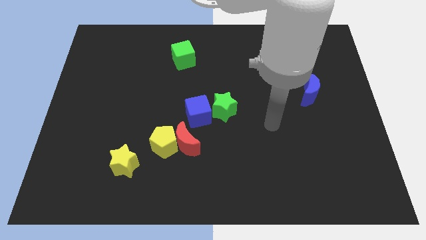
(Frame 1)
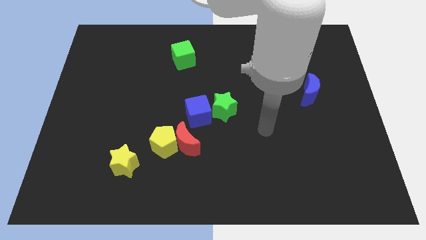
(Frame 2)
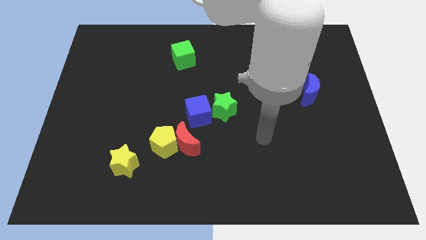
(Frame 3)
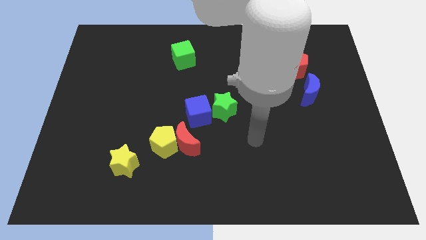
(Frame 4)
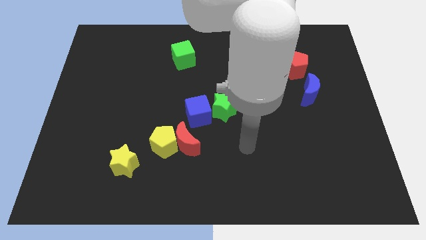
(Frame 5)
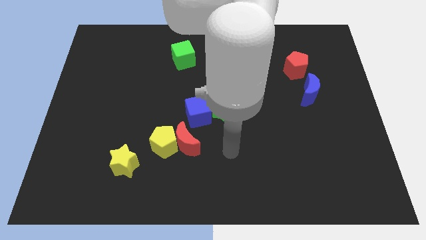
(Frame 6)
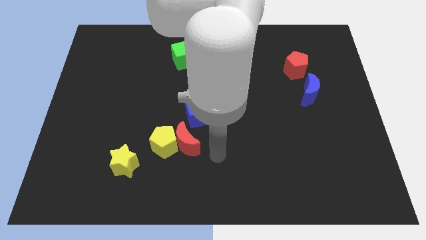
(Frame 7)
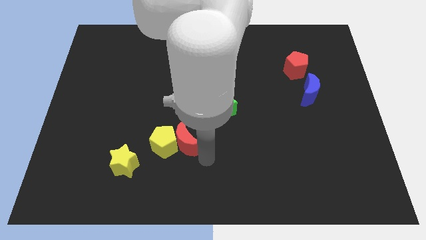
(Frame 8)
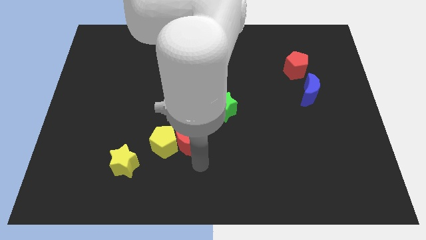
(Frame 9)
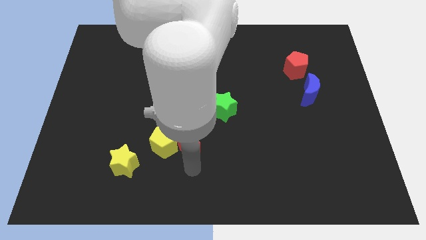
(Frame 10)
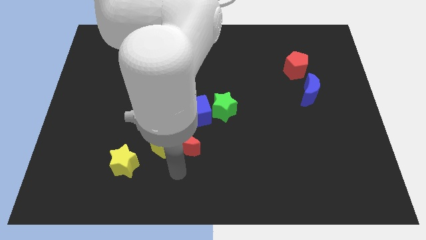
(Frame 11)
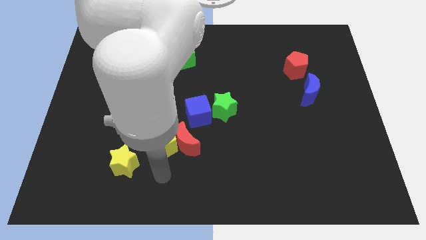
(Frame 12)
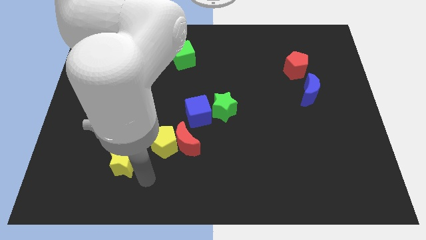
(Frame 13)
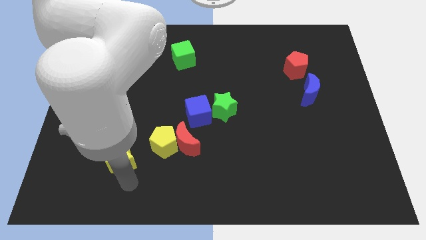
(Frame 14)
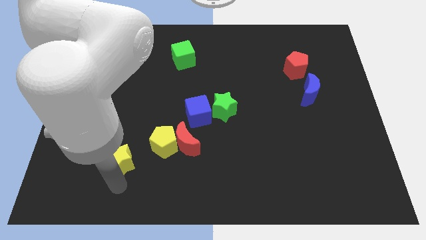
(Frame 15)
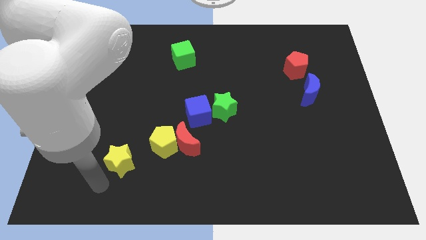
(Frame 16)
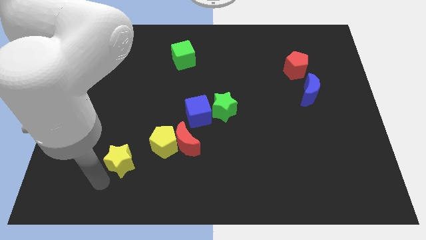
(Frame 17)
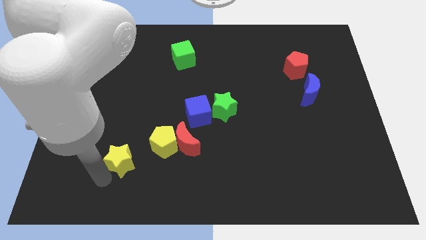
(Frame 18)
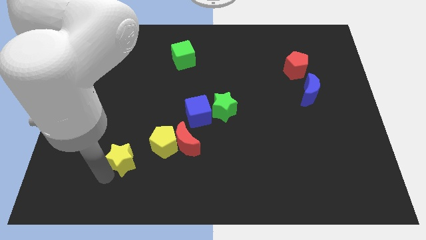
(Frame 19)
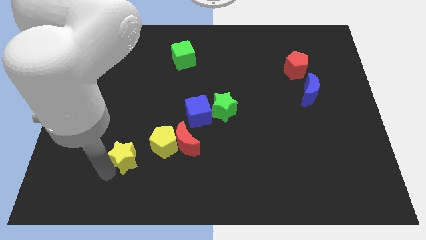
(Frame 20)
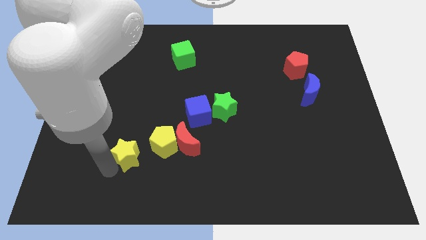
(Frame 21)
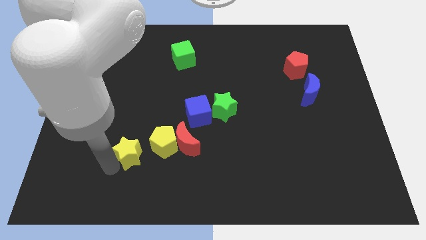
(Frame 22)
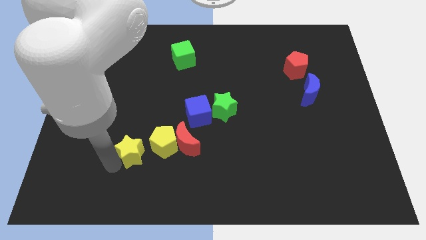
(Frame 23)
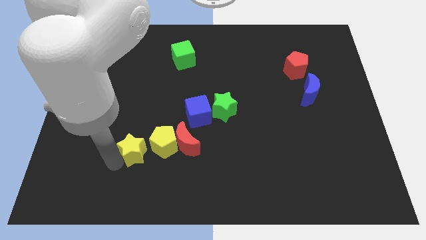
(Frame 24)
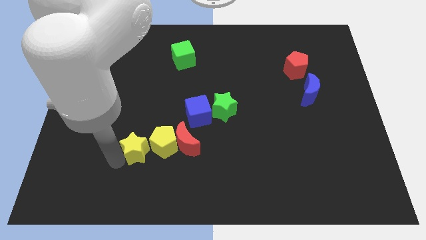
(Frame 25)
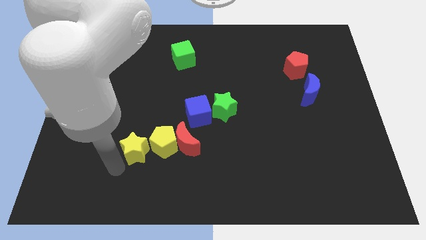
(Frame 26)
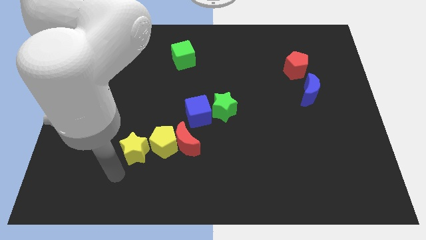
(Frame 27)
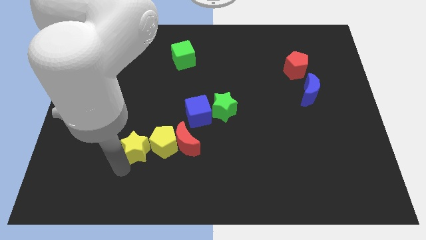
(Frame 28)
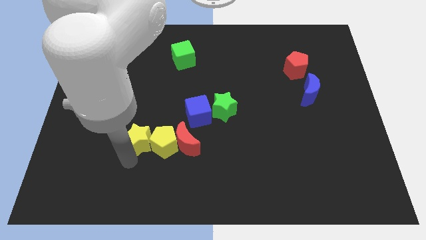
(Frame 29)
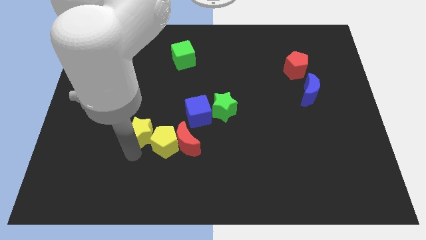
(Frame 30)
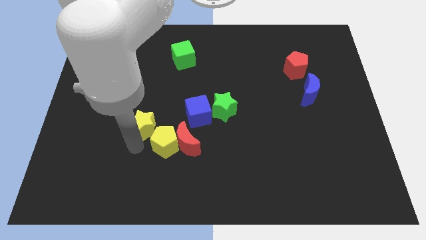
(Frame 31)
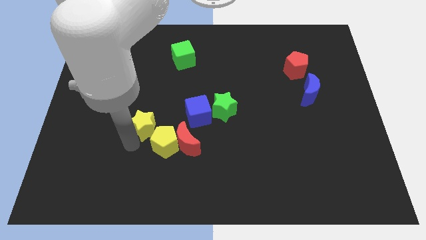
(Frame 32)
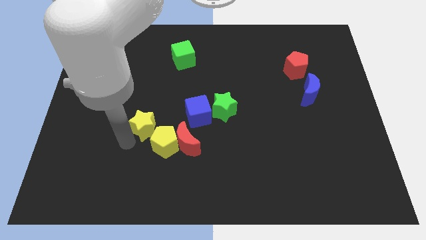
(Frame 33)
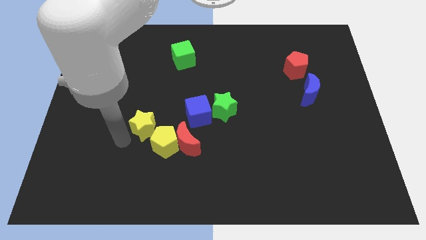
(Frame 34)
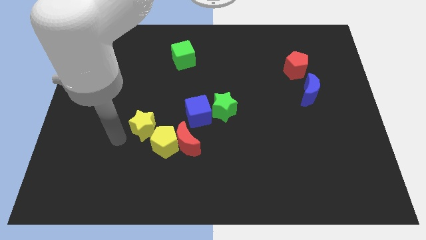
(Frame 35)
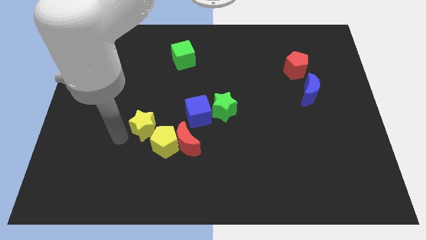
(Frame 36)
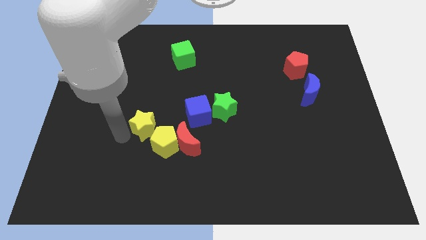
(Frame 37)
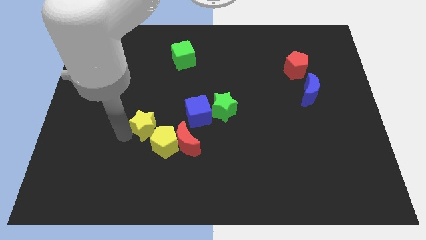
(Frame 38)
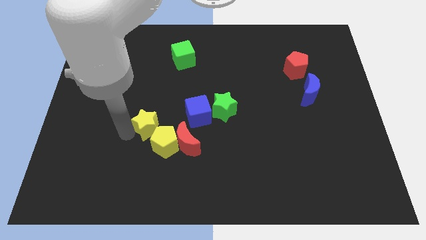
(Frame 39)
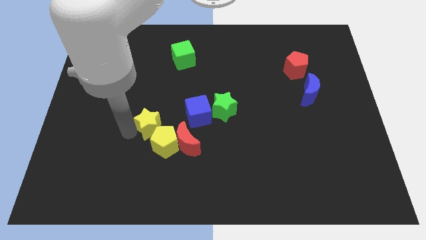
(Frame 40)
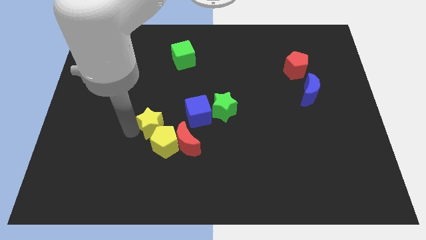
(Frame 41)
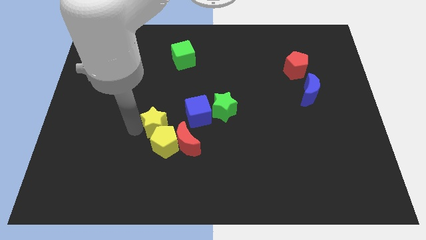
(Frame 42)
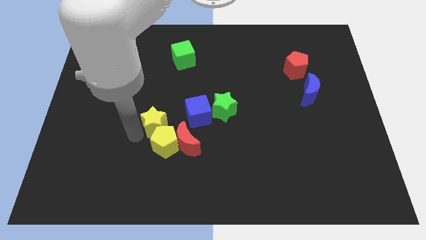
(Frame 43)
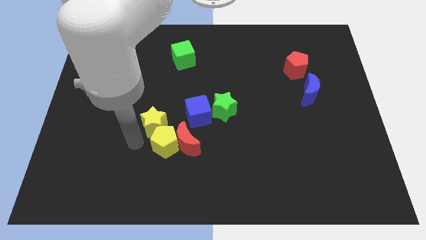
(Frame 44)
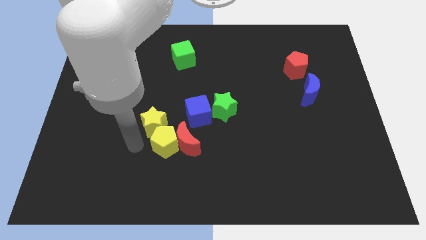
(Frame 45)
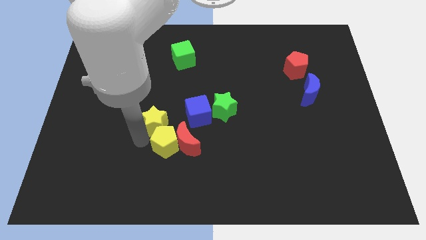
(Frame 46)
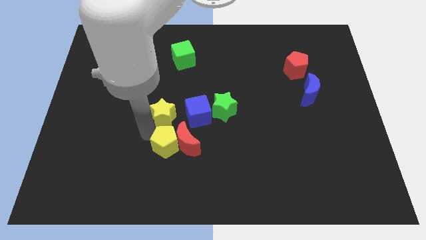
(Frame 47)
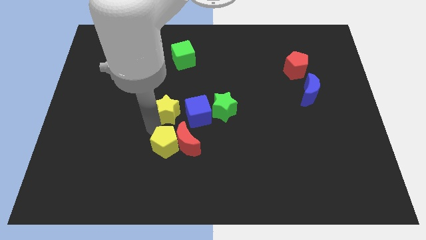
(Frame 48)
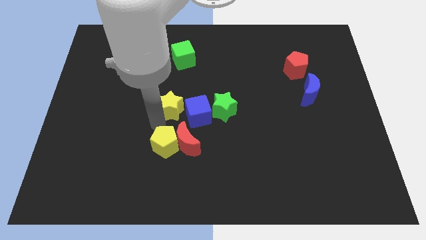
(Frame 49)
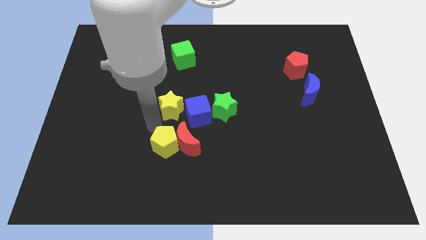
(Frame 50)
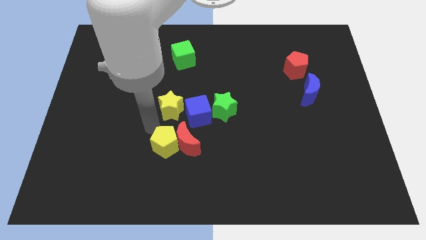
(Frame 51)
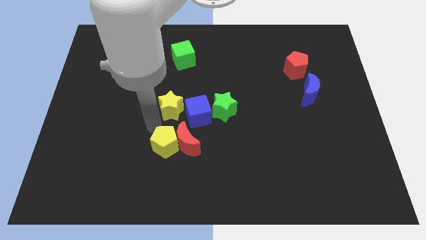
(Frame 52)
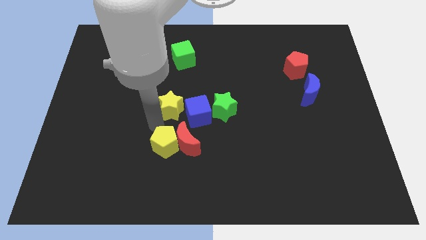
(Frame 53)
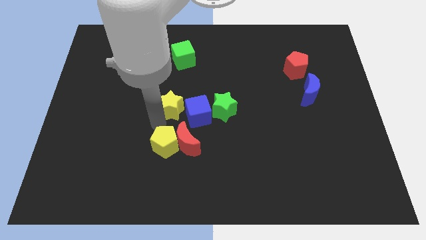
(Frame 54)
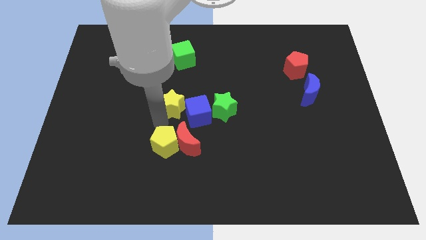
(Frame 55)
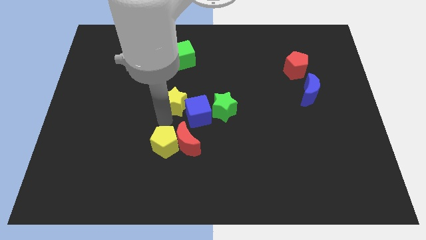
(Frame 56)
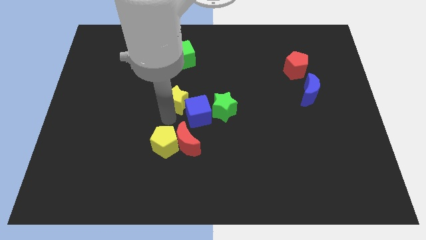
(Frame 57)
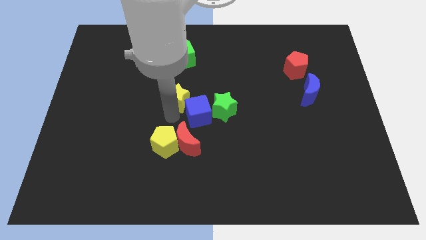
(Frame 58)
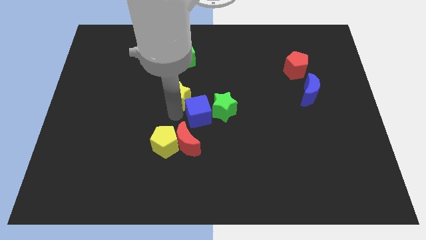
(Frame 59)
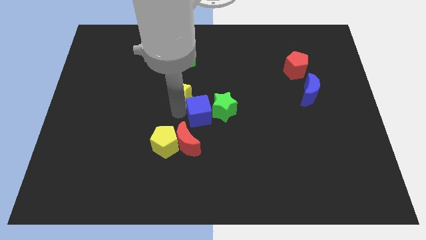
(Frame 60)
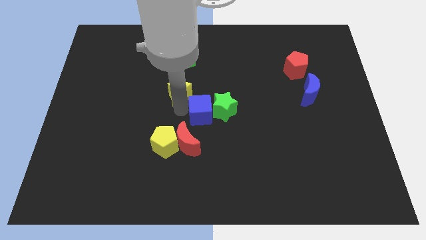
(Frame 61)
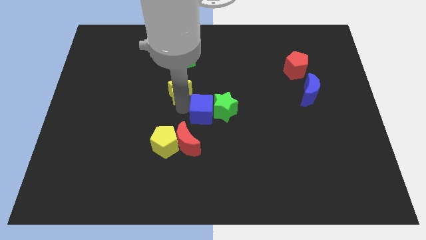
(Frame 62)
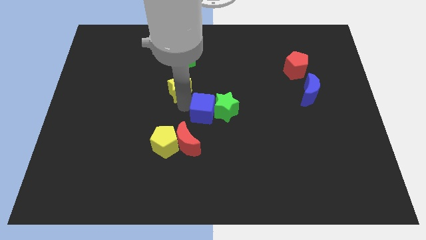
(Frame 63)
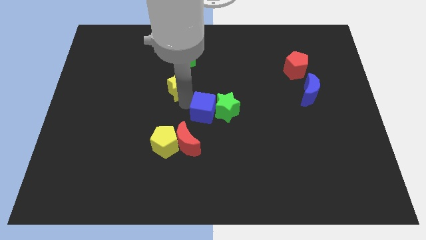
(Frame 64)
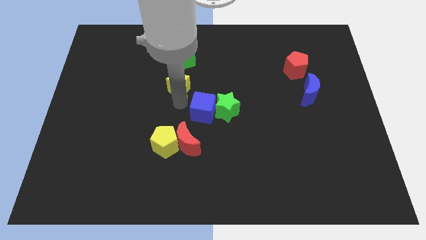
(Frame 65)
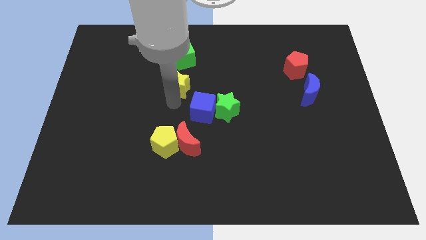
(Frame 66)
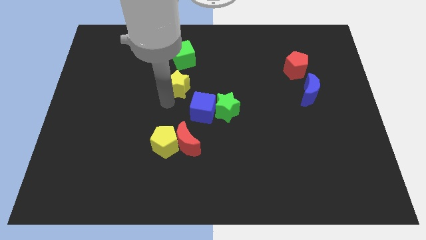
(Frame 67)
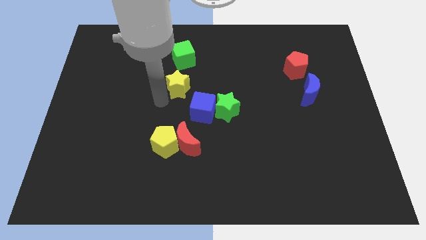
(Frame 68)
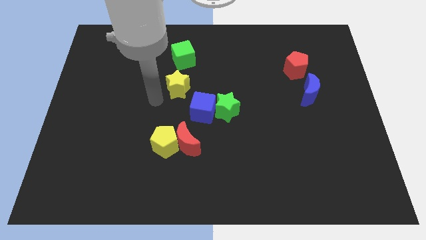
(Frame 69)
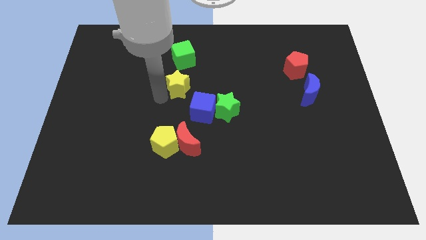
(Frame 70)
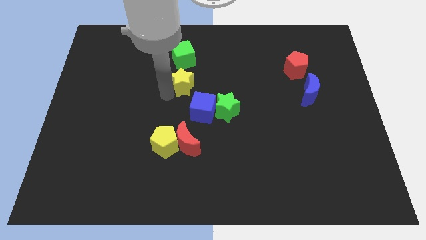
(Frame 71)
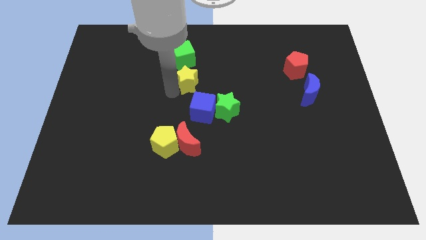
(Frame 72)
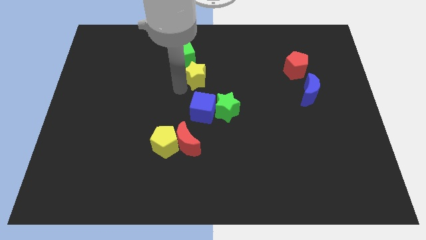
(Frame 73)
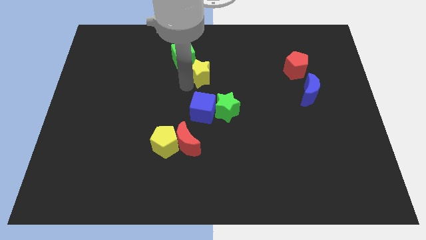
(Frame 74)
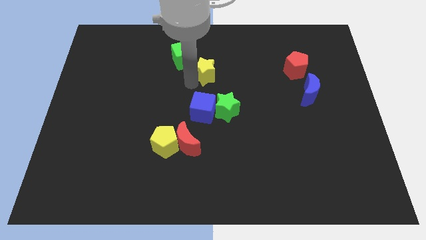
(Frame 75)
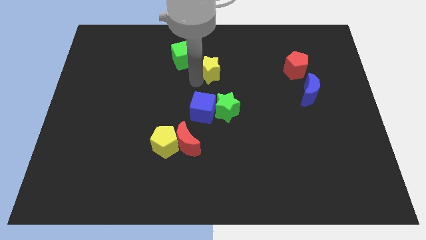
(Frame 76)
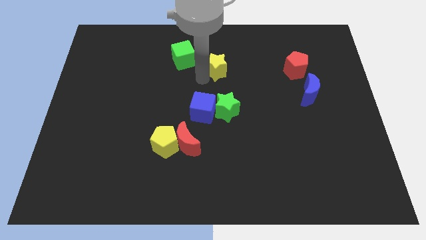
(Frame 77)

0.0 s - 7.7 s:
slide the yellow star to the right side of the green cube

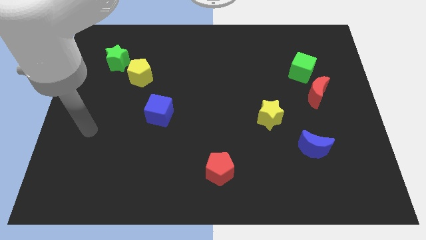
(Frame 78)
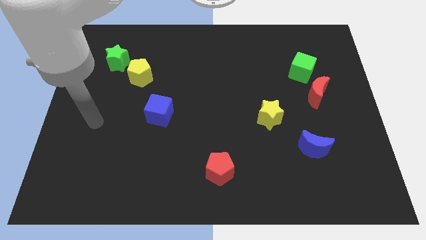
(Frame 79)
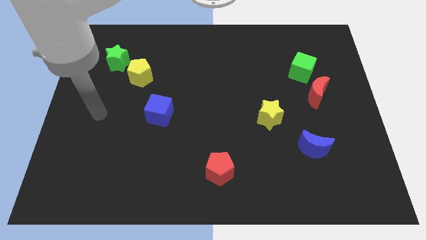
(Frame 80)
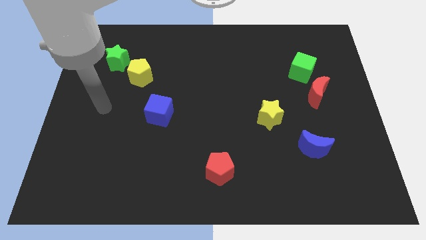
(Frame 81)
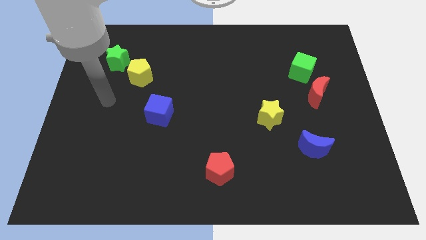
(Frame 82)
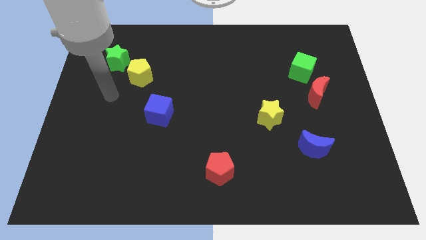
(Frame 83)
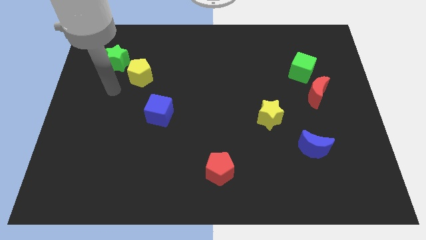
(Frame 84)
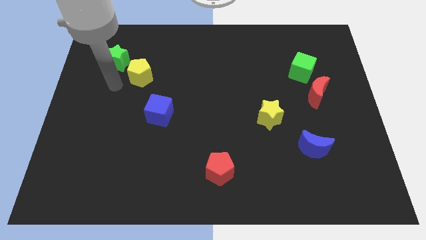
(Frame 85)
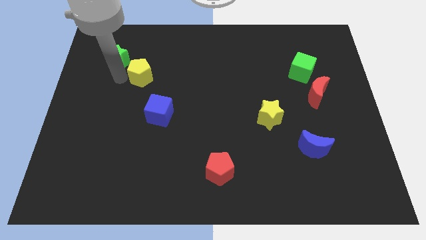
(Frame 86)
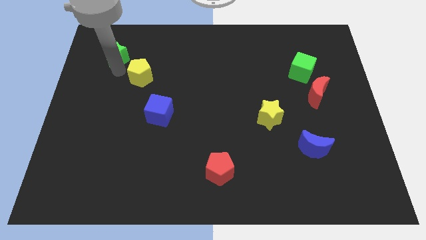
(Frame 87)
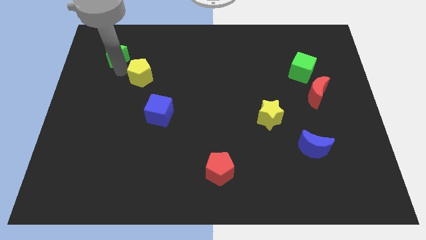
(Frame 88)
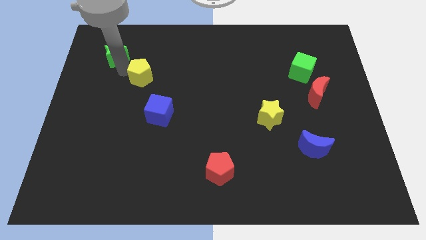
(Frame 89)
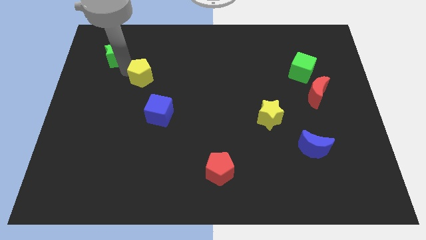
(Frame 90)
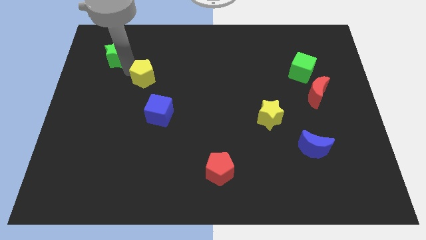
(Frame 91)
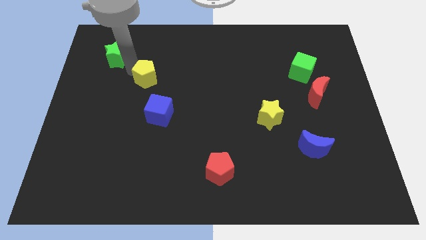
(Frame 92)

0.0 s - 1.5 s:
put the yellow pentagon to the top side of the blue cube
